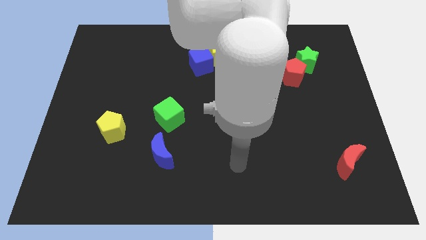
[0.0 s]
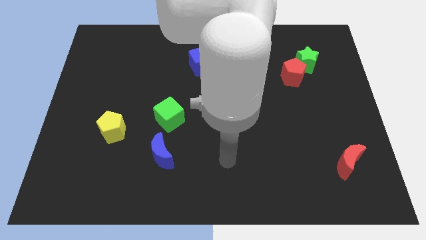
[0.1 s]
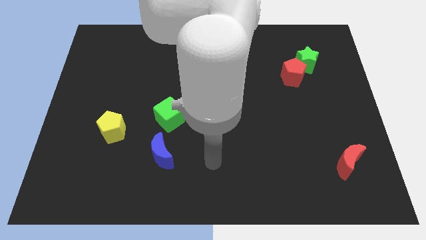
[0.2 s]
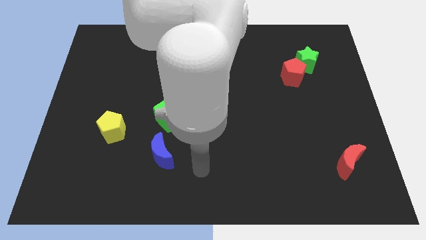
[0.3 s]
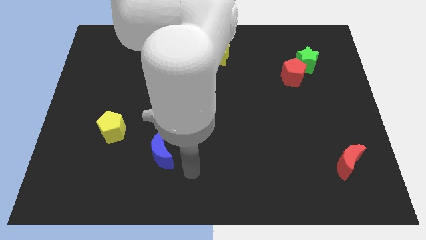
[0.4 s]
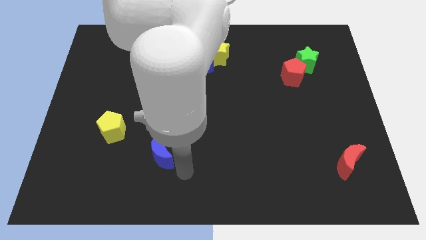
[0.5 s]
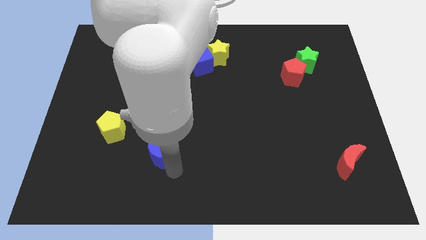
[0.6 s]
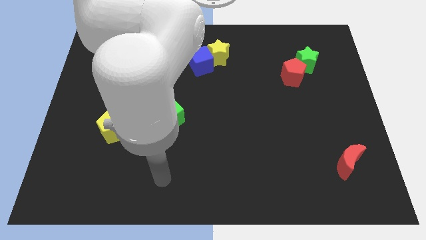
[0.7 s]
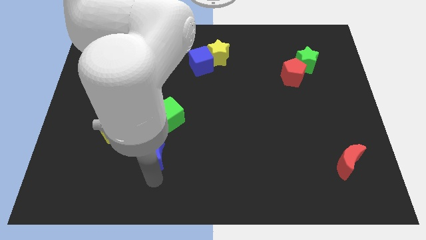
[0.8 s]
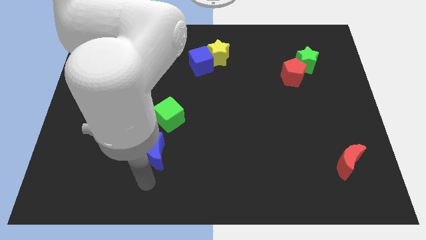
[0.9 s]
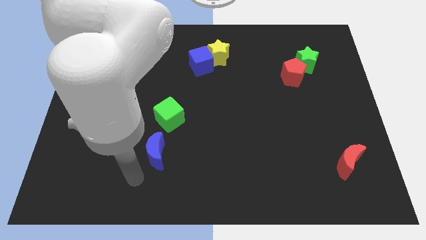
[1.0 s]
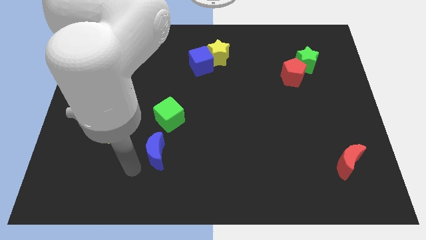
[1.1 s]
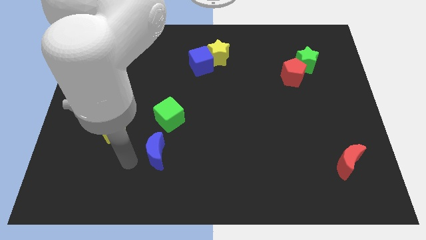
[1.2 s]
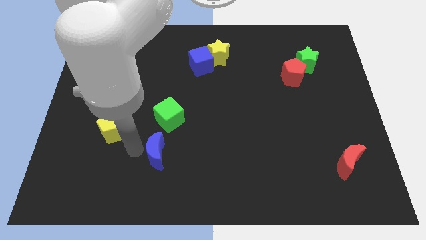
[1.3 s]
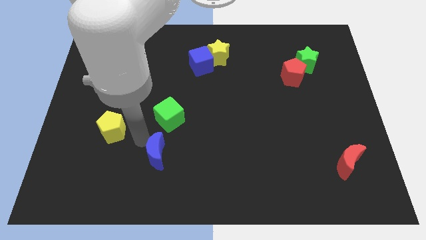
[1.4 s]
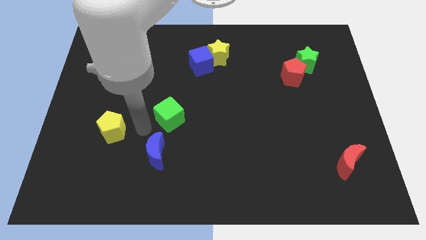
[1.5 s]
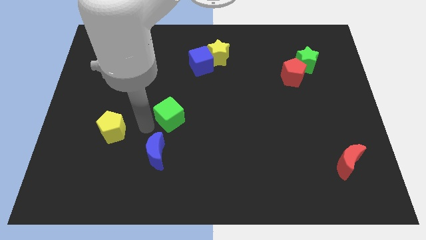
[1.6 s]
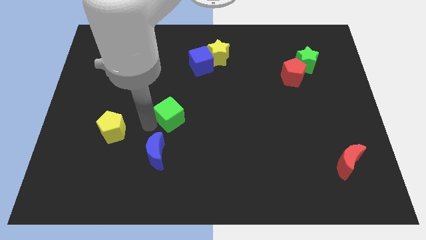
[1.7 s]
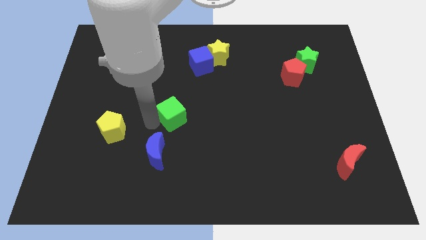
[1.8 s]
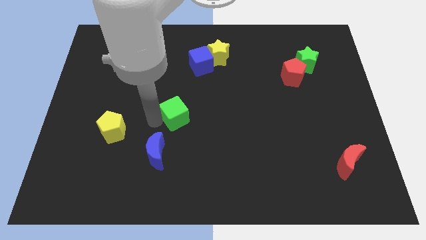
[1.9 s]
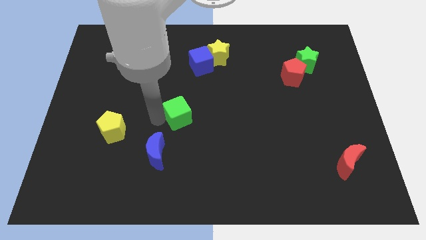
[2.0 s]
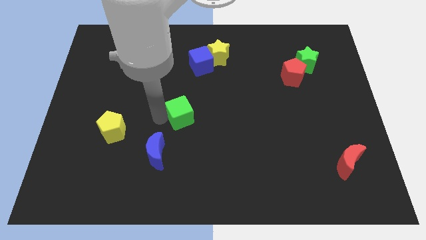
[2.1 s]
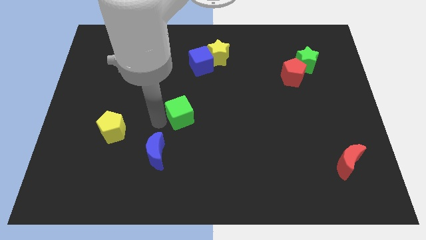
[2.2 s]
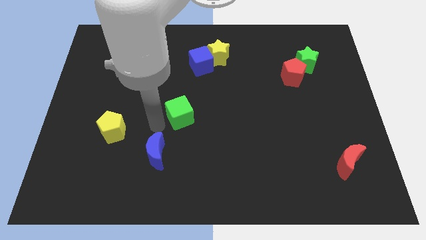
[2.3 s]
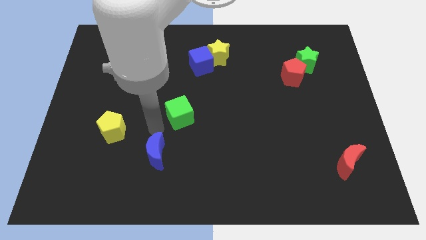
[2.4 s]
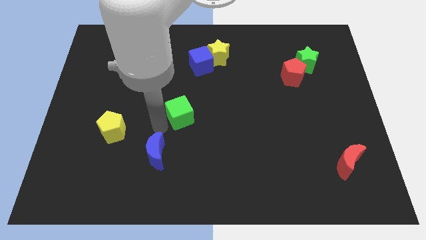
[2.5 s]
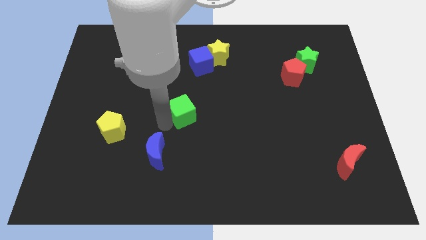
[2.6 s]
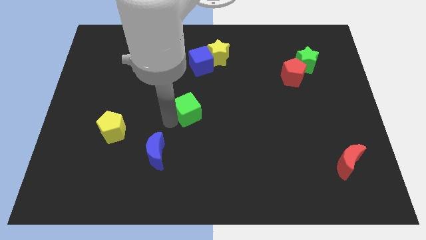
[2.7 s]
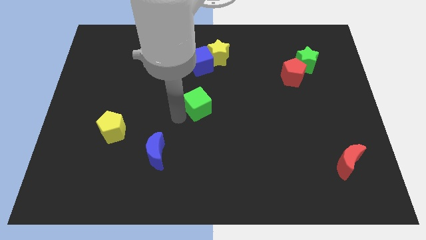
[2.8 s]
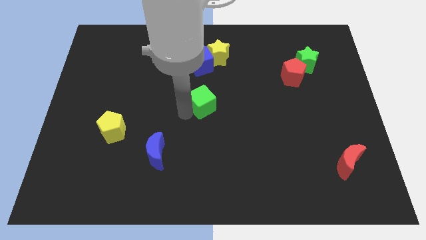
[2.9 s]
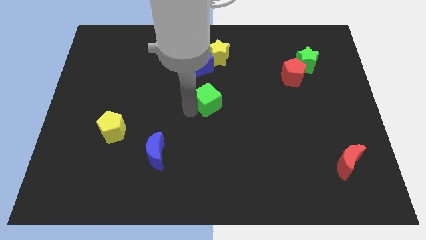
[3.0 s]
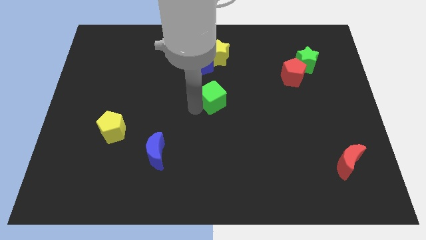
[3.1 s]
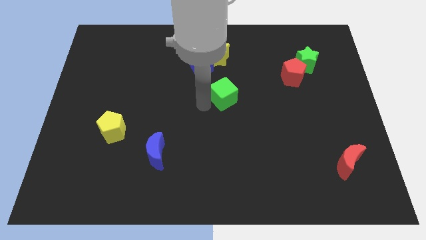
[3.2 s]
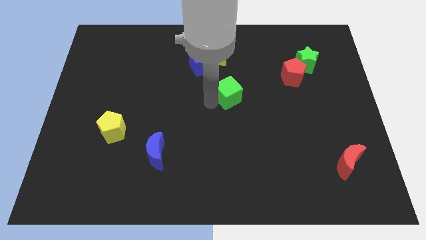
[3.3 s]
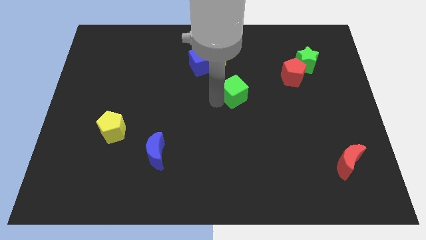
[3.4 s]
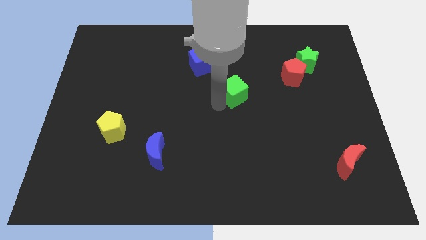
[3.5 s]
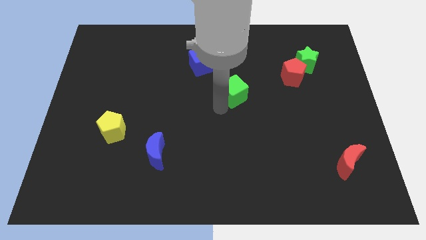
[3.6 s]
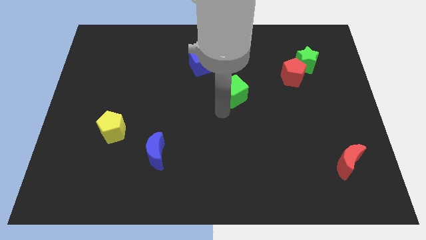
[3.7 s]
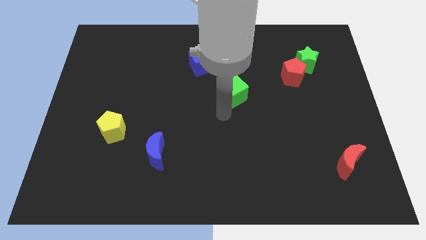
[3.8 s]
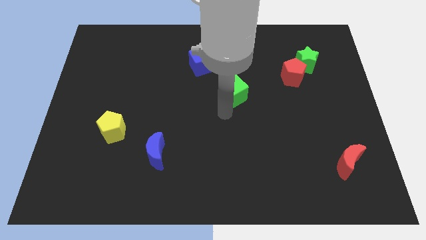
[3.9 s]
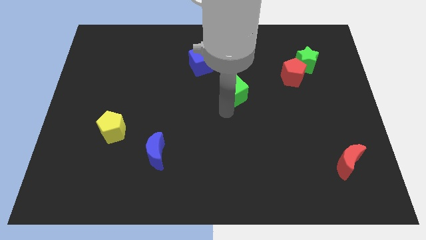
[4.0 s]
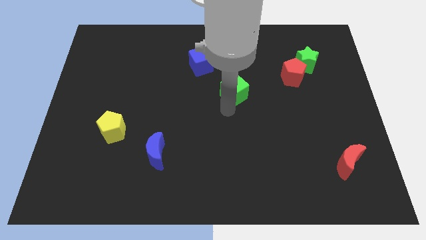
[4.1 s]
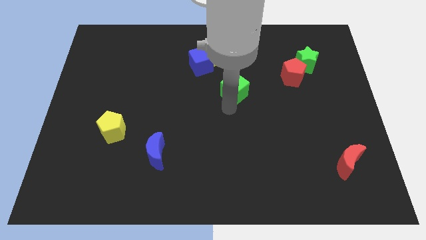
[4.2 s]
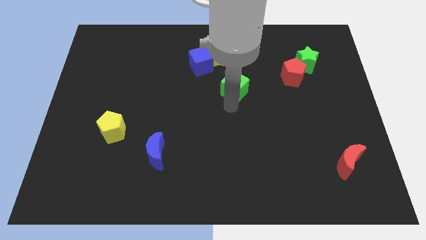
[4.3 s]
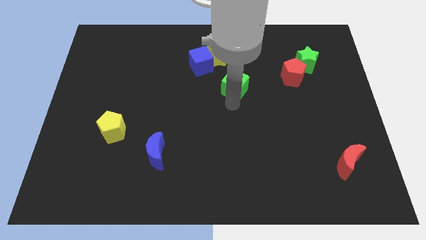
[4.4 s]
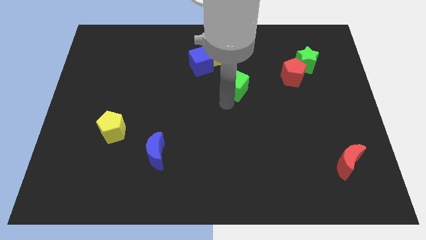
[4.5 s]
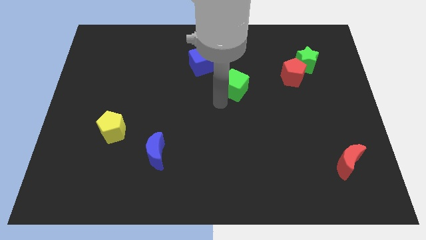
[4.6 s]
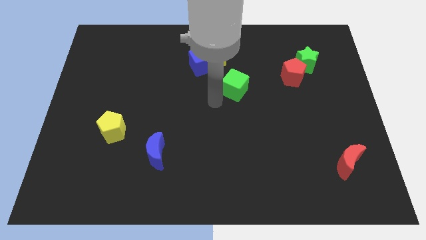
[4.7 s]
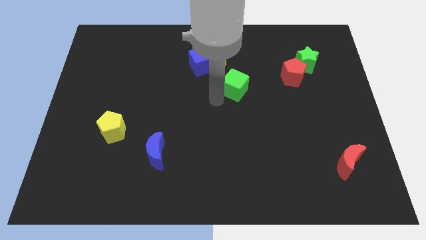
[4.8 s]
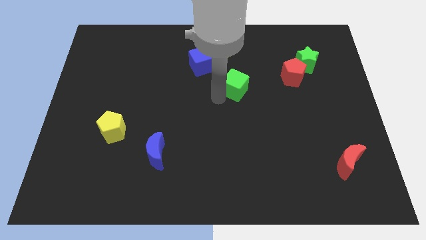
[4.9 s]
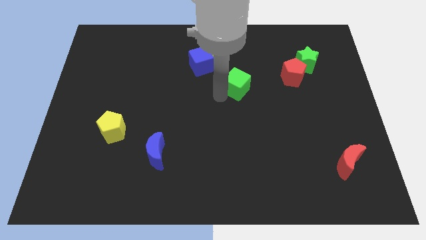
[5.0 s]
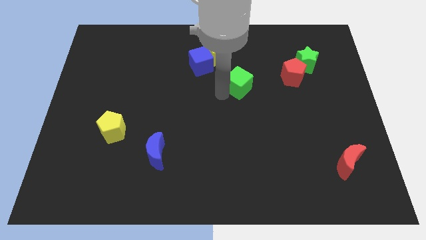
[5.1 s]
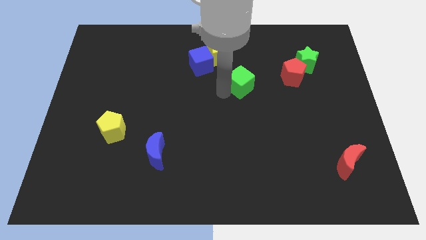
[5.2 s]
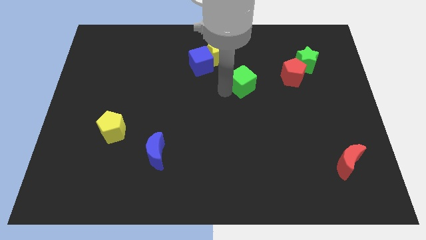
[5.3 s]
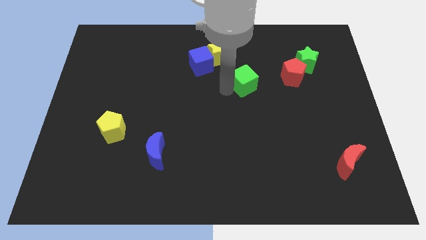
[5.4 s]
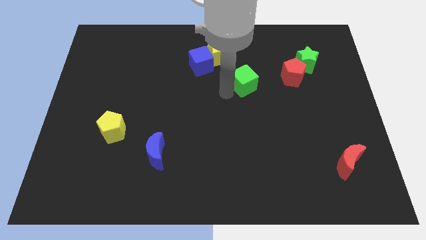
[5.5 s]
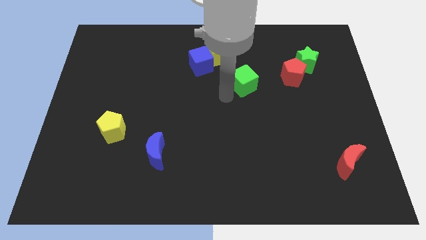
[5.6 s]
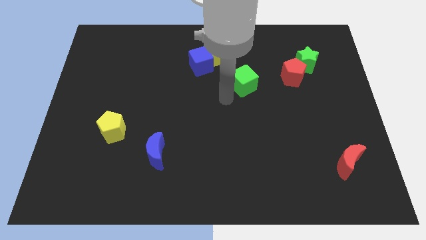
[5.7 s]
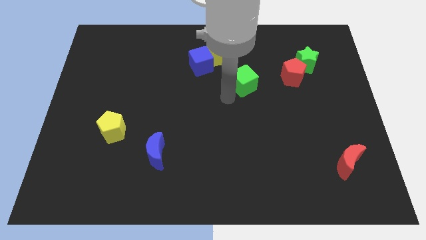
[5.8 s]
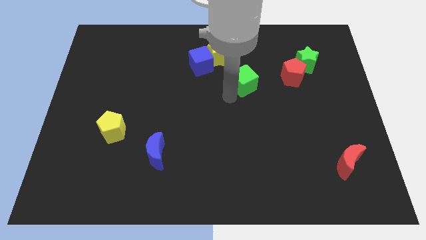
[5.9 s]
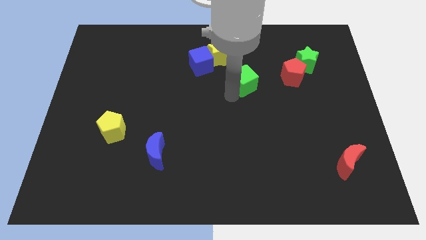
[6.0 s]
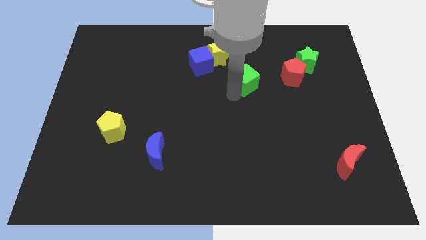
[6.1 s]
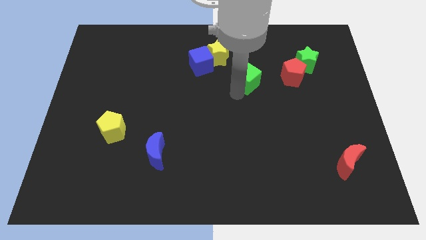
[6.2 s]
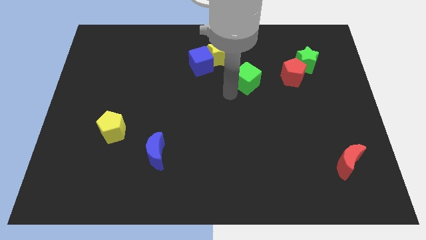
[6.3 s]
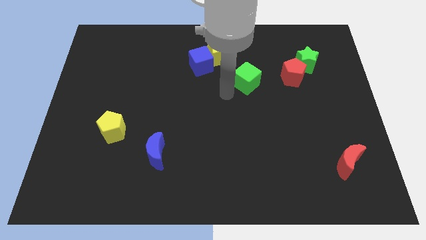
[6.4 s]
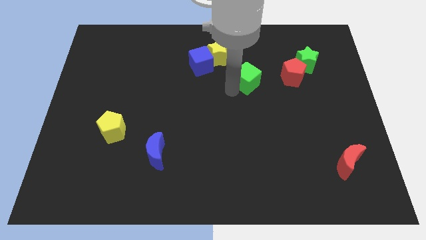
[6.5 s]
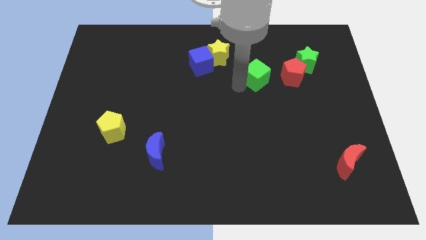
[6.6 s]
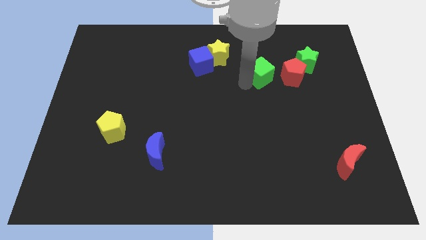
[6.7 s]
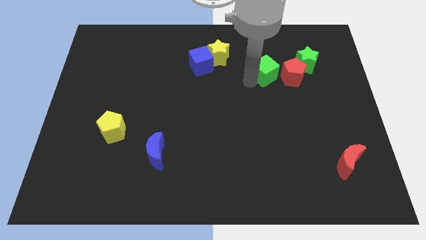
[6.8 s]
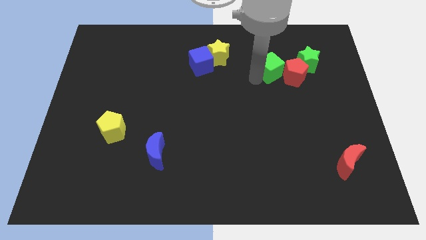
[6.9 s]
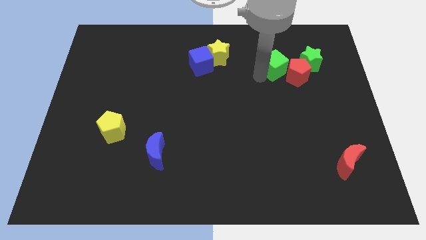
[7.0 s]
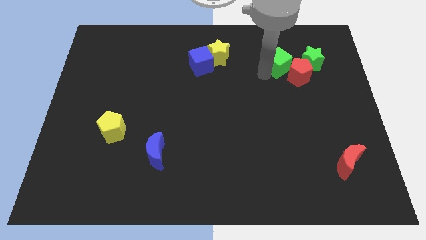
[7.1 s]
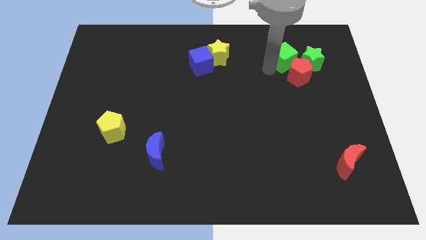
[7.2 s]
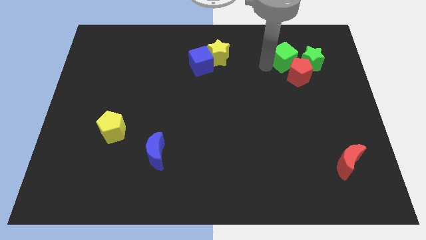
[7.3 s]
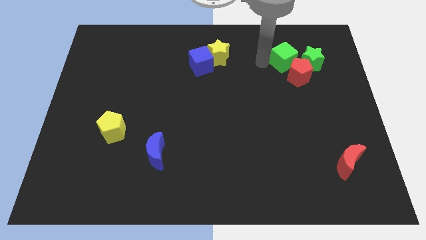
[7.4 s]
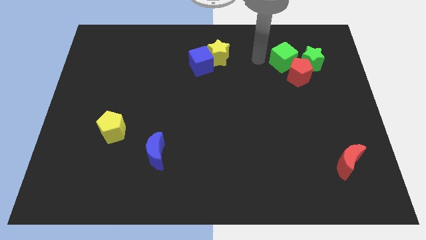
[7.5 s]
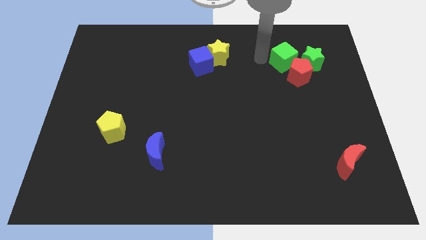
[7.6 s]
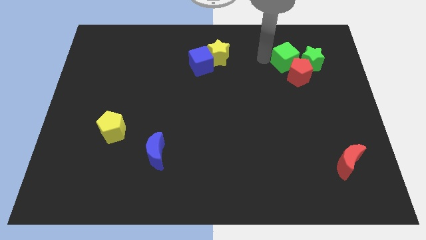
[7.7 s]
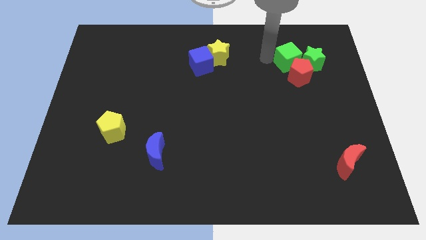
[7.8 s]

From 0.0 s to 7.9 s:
push the green cube next to the green star

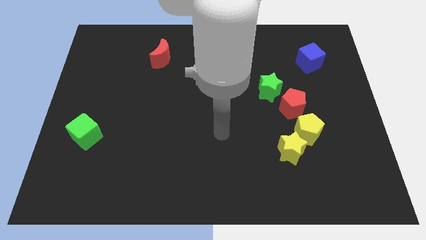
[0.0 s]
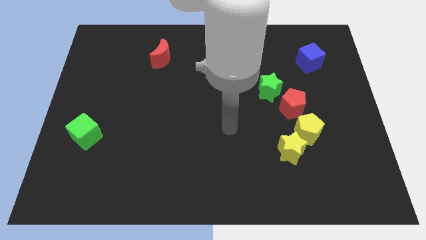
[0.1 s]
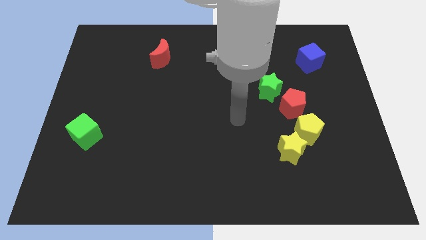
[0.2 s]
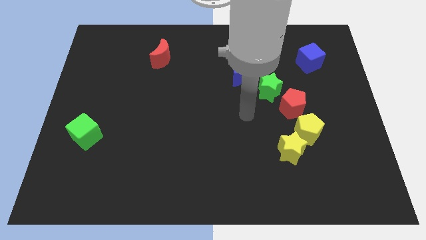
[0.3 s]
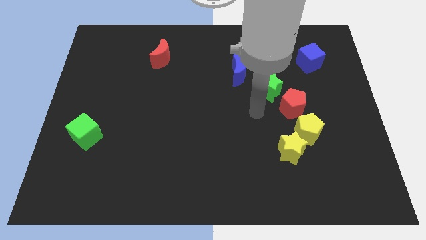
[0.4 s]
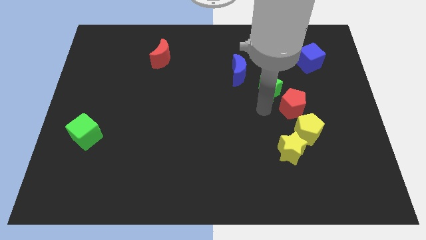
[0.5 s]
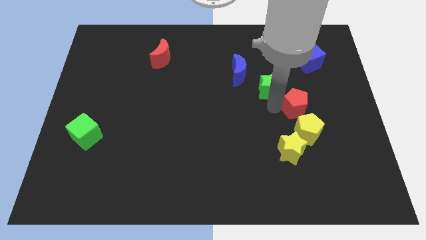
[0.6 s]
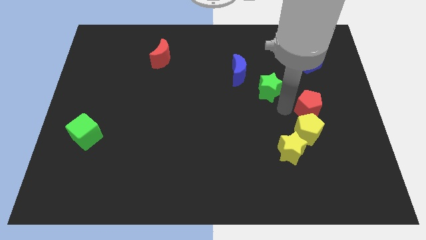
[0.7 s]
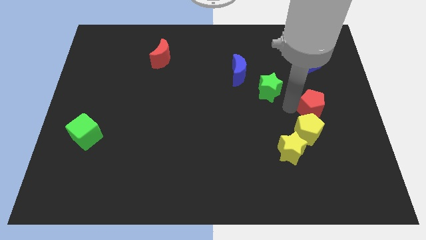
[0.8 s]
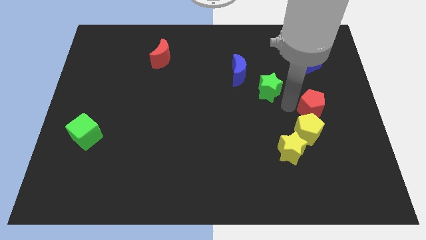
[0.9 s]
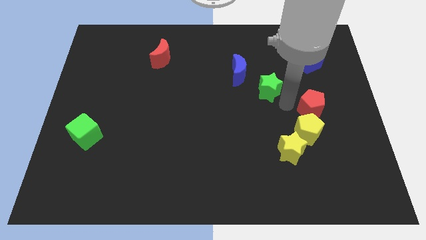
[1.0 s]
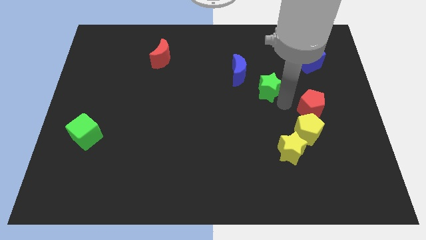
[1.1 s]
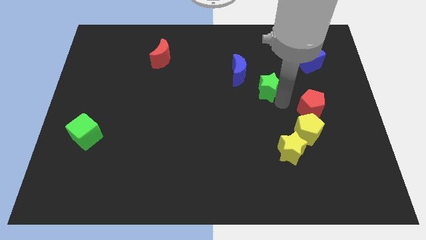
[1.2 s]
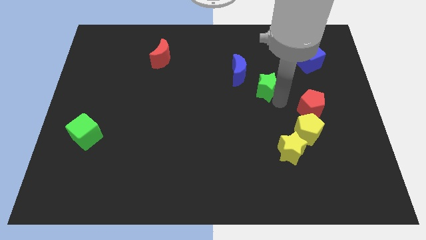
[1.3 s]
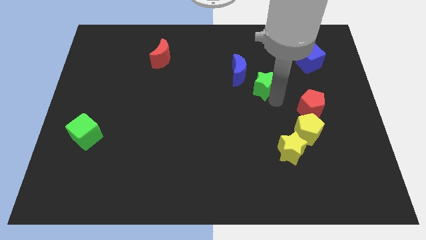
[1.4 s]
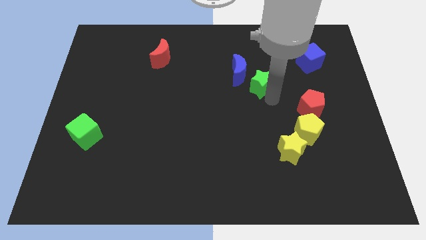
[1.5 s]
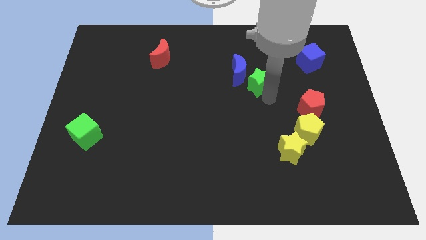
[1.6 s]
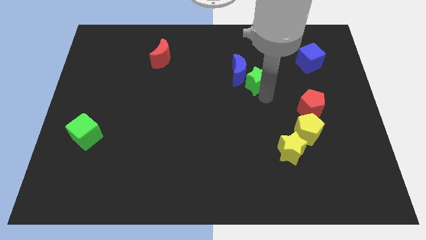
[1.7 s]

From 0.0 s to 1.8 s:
put the green star to the blue moon
